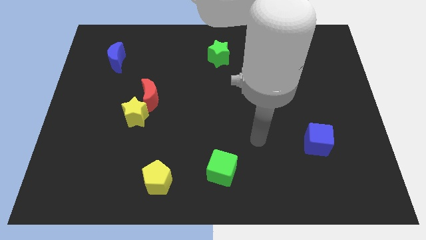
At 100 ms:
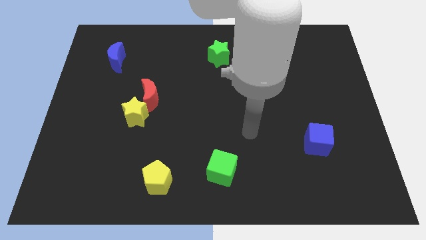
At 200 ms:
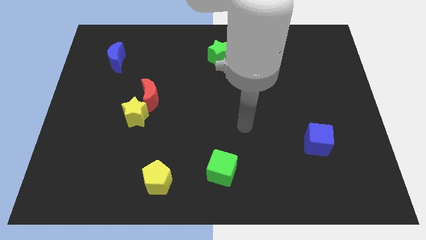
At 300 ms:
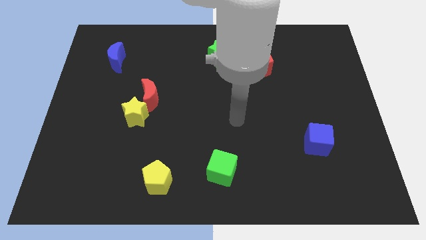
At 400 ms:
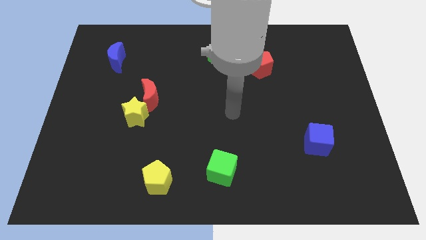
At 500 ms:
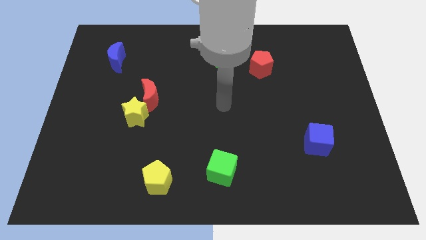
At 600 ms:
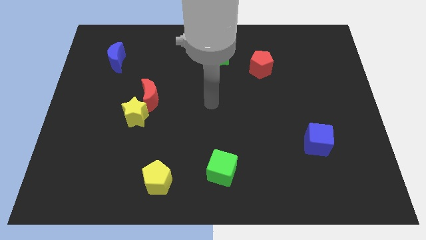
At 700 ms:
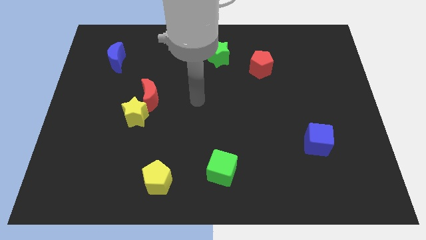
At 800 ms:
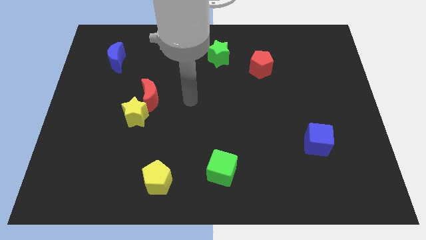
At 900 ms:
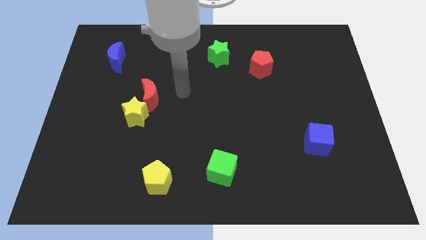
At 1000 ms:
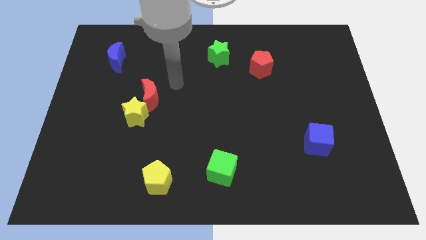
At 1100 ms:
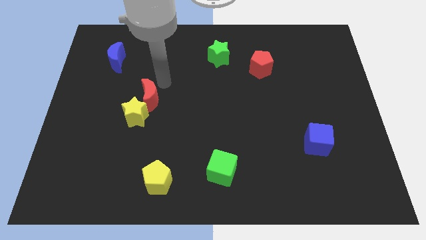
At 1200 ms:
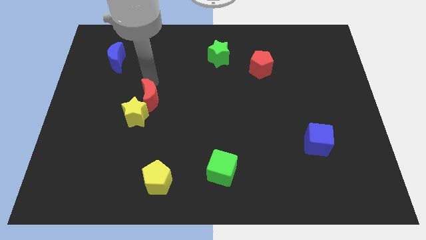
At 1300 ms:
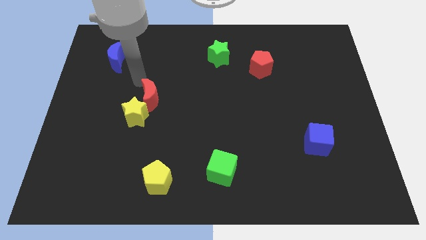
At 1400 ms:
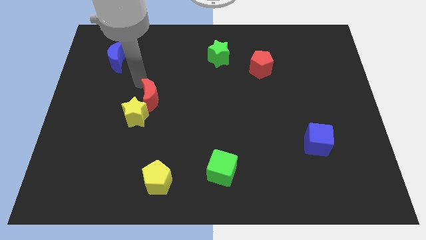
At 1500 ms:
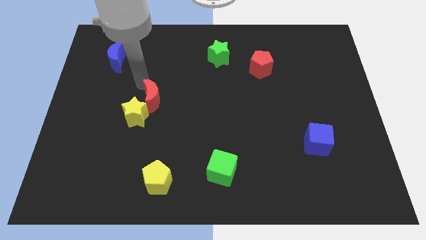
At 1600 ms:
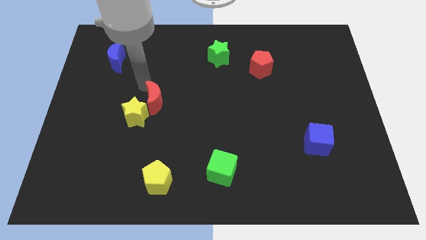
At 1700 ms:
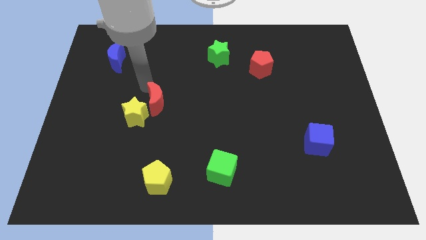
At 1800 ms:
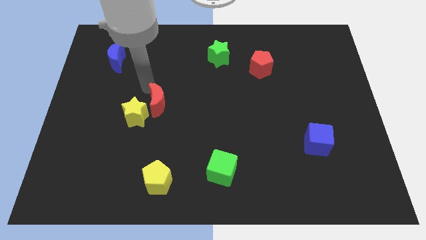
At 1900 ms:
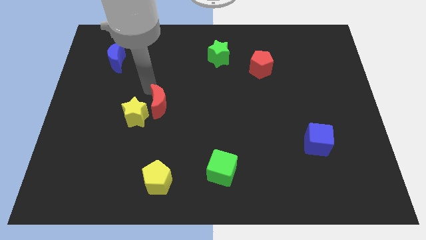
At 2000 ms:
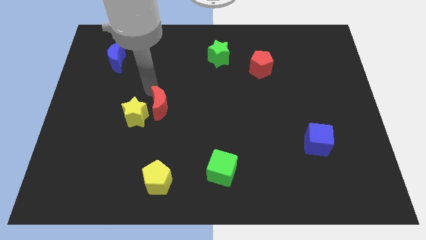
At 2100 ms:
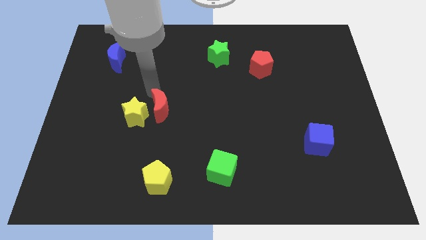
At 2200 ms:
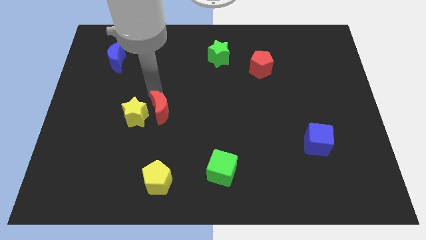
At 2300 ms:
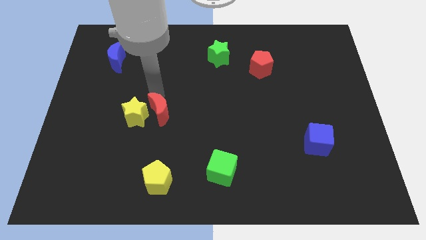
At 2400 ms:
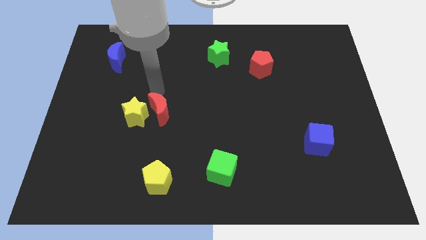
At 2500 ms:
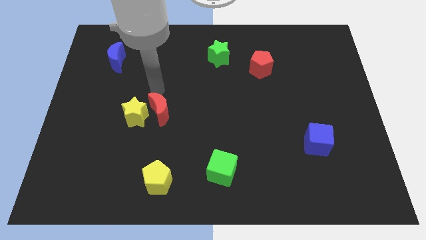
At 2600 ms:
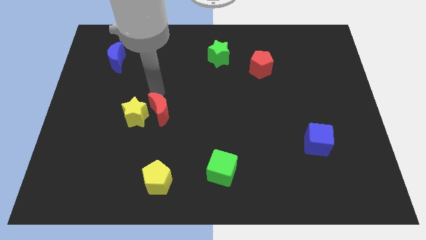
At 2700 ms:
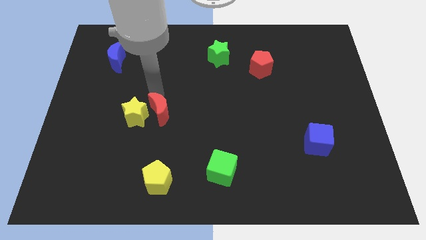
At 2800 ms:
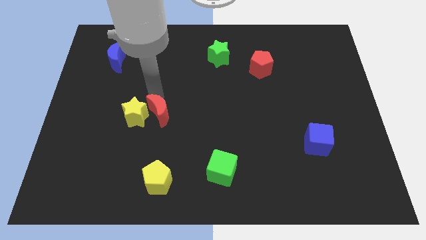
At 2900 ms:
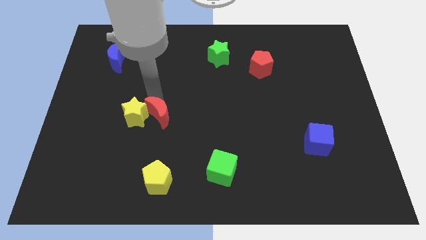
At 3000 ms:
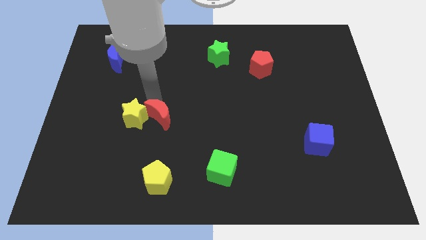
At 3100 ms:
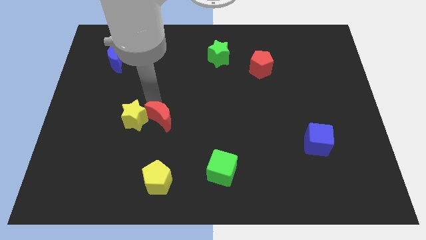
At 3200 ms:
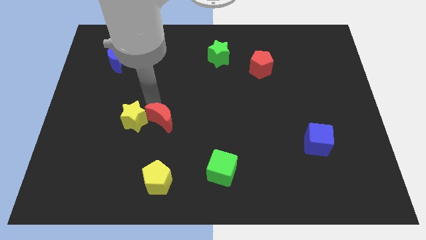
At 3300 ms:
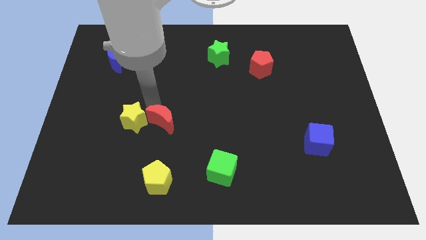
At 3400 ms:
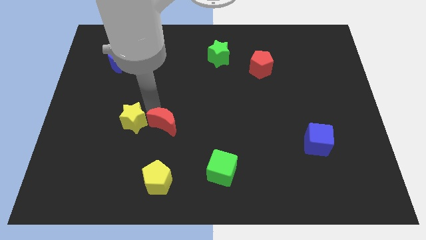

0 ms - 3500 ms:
push the red moon a little down

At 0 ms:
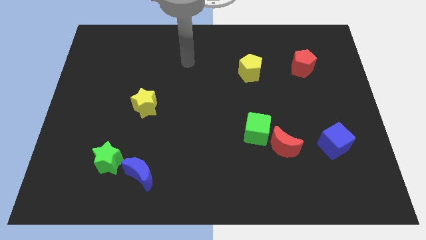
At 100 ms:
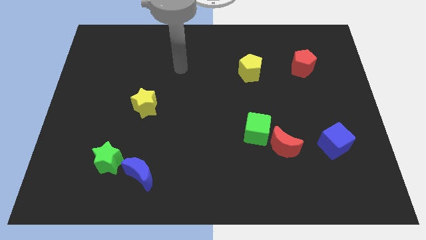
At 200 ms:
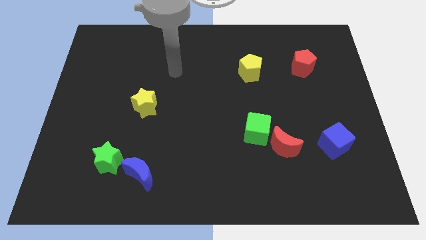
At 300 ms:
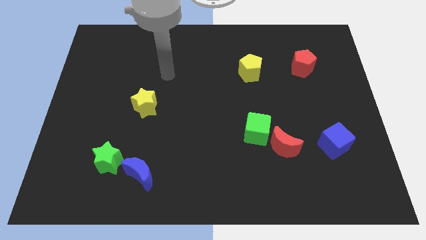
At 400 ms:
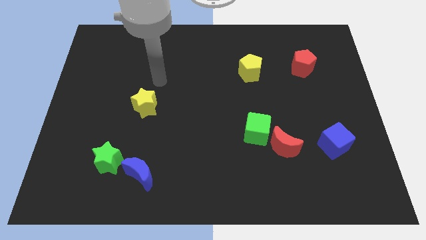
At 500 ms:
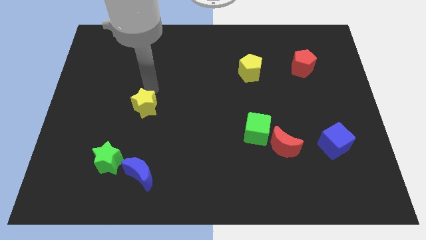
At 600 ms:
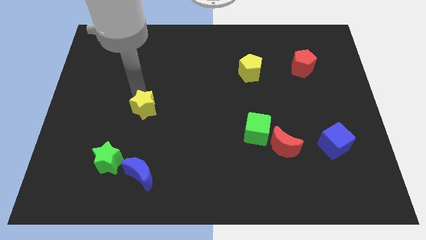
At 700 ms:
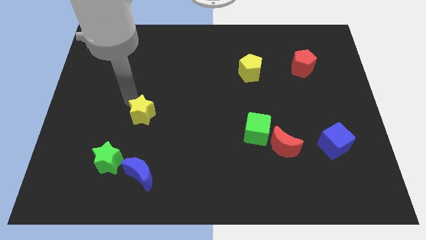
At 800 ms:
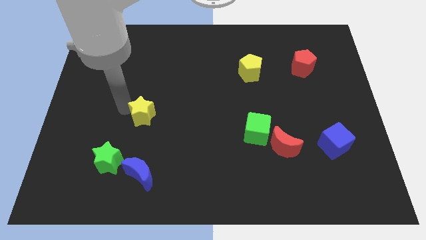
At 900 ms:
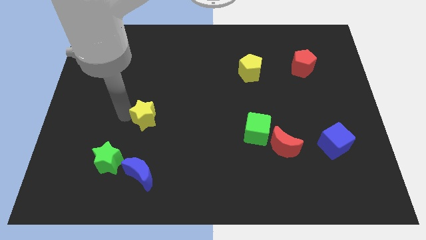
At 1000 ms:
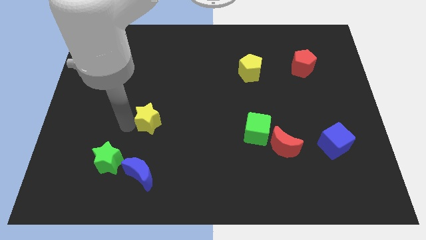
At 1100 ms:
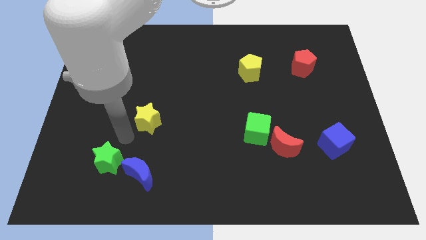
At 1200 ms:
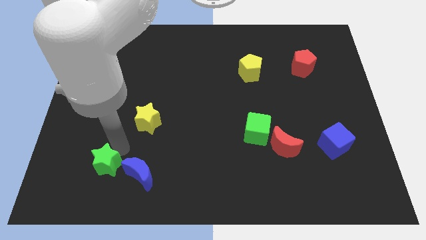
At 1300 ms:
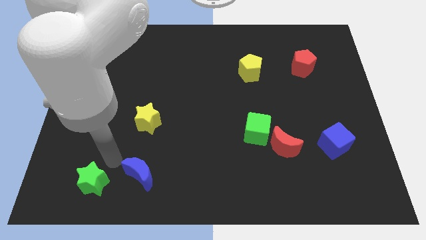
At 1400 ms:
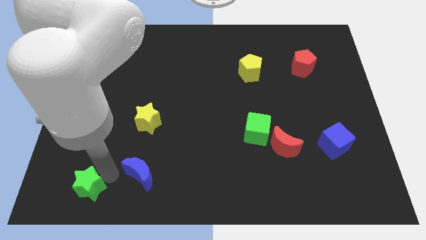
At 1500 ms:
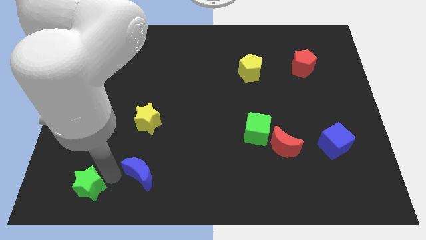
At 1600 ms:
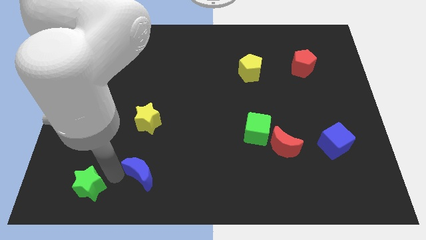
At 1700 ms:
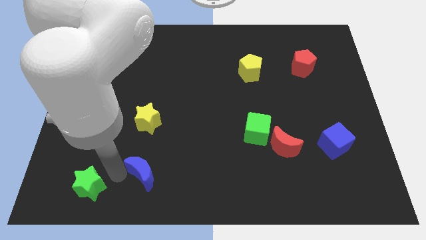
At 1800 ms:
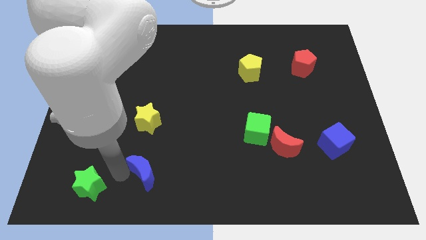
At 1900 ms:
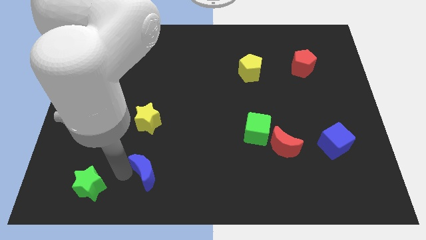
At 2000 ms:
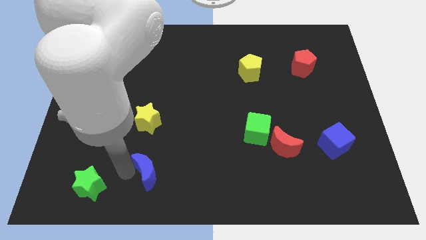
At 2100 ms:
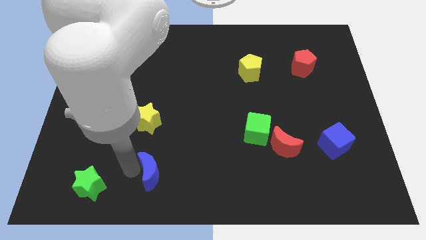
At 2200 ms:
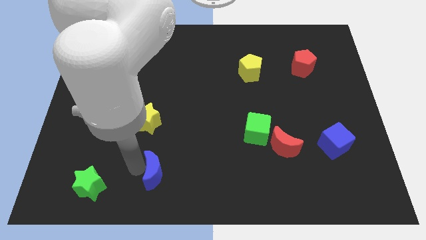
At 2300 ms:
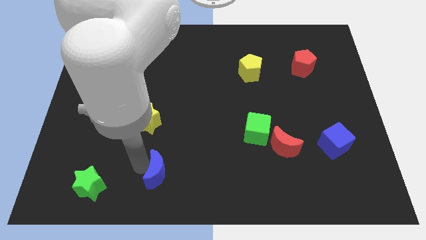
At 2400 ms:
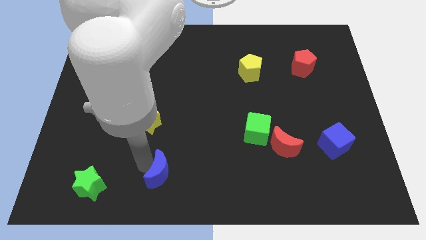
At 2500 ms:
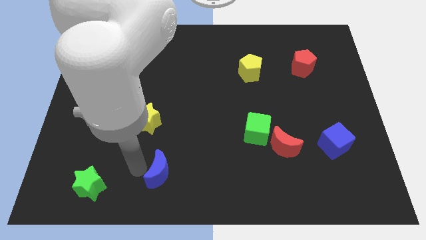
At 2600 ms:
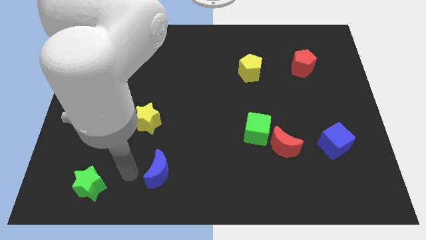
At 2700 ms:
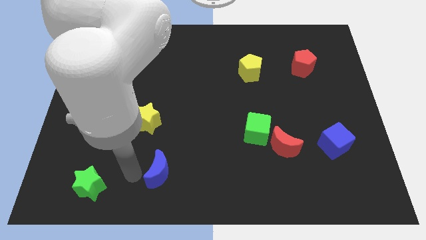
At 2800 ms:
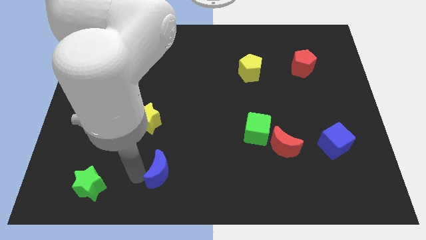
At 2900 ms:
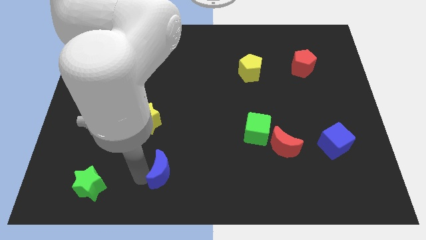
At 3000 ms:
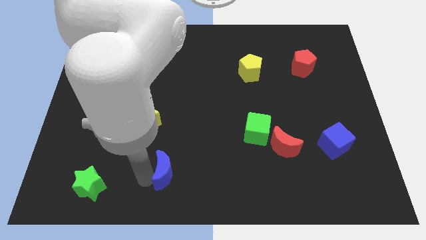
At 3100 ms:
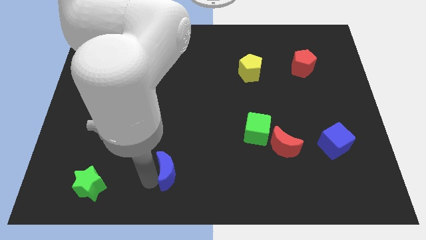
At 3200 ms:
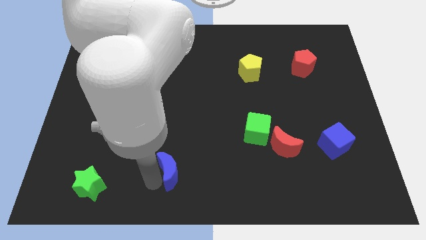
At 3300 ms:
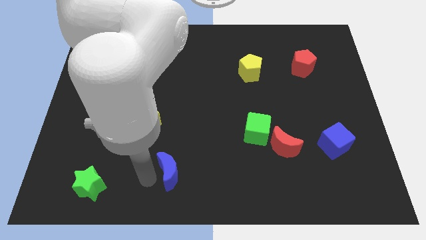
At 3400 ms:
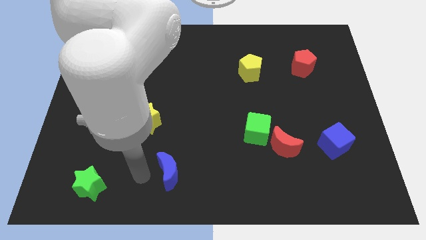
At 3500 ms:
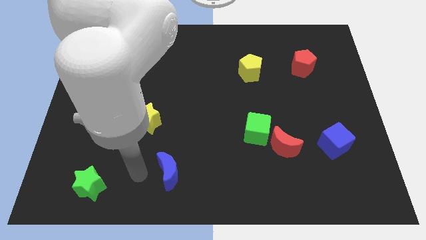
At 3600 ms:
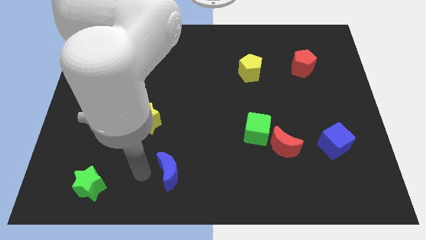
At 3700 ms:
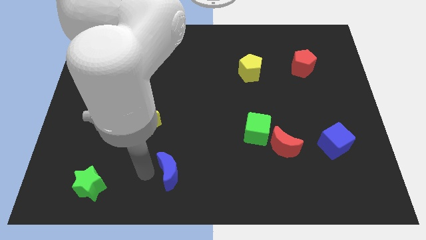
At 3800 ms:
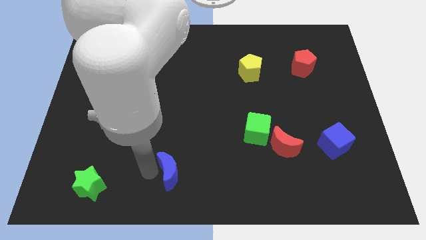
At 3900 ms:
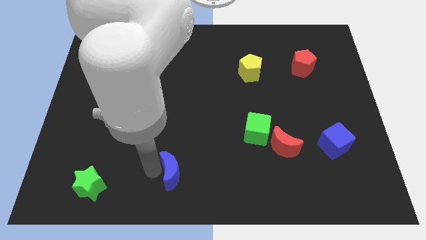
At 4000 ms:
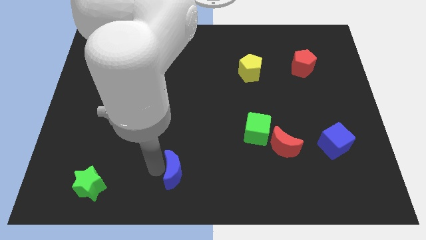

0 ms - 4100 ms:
slide the blue moon somewhat right

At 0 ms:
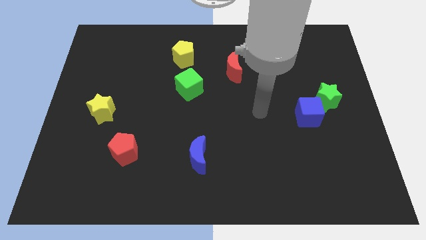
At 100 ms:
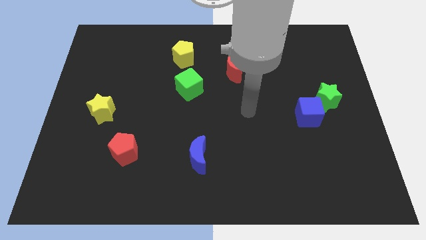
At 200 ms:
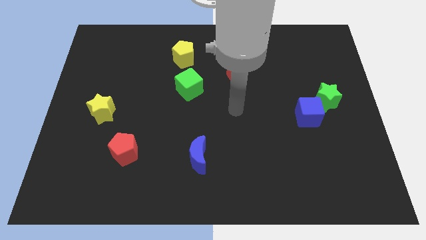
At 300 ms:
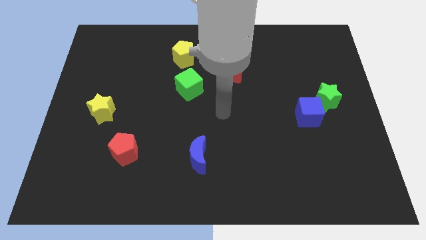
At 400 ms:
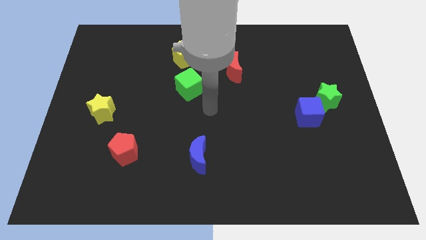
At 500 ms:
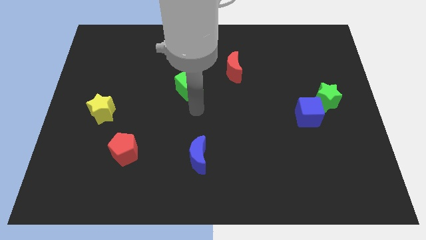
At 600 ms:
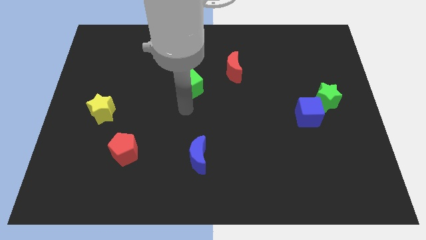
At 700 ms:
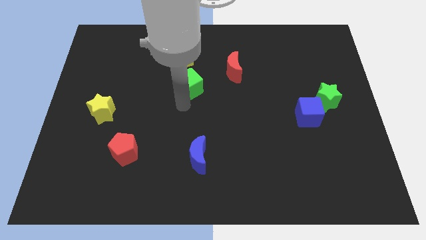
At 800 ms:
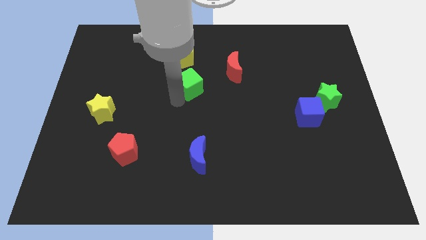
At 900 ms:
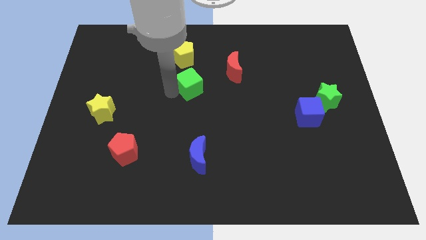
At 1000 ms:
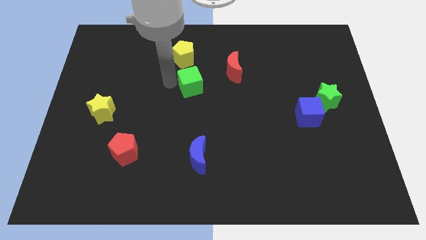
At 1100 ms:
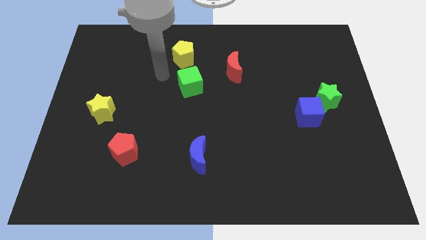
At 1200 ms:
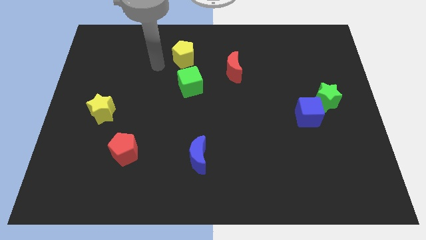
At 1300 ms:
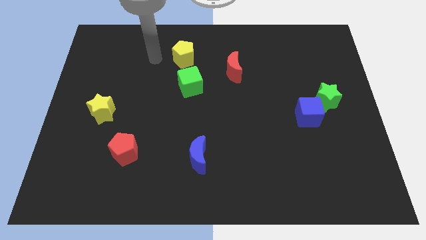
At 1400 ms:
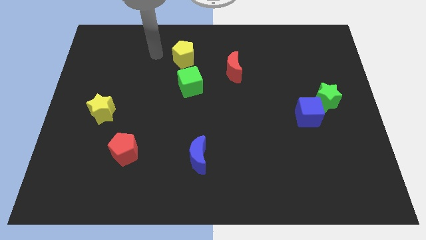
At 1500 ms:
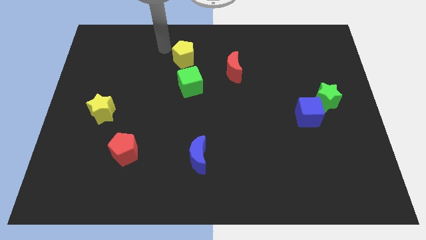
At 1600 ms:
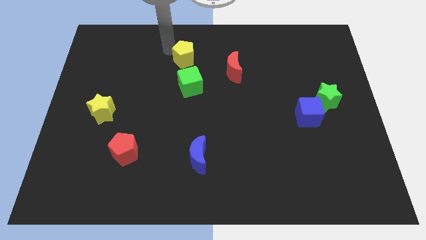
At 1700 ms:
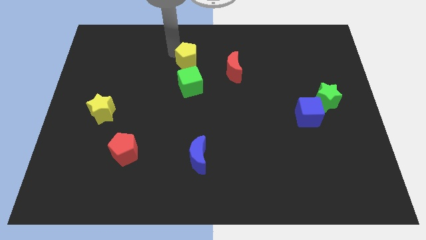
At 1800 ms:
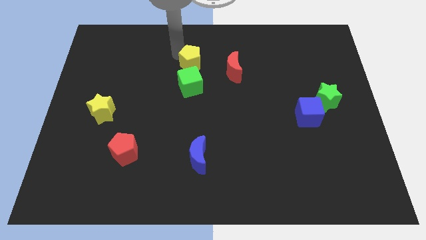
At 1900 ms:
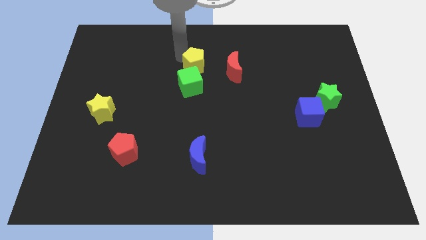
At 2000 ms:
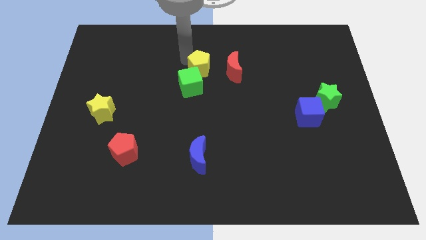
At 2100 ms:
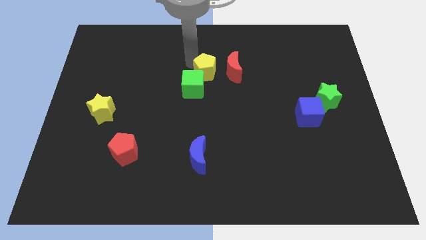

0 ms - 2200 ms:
slightly slide the yellow pentagon downwards and then to the right
